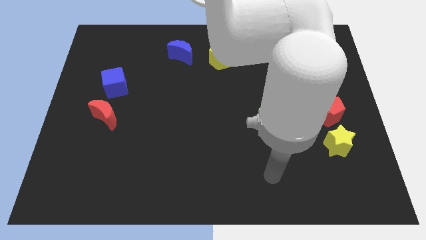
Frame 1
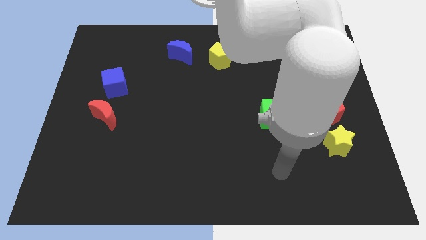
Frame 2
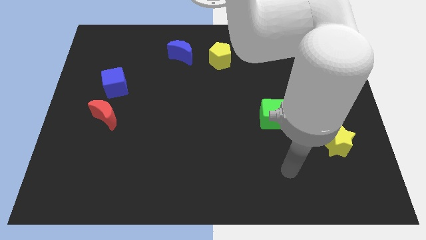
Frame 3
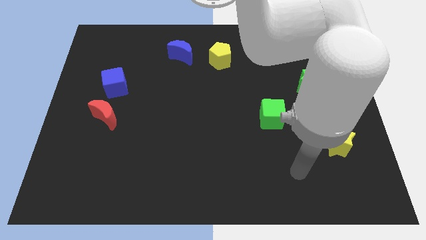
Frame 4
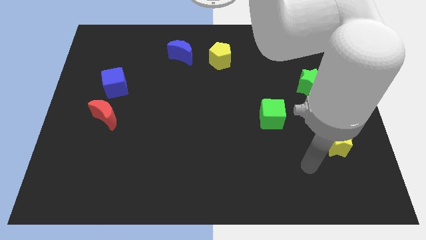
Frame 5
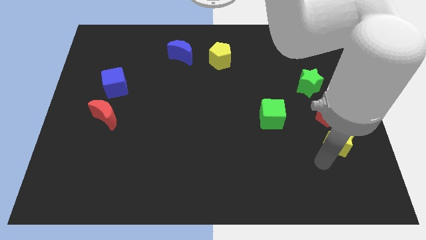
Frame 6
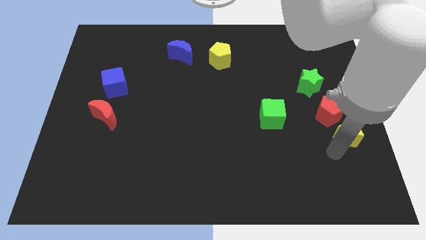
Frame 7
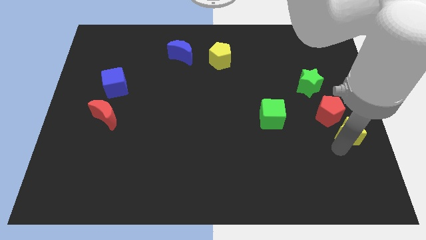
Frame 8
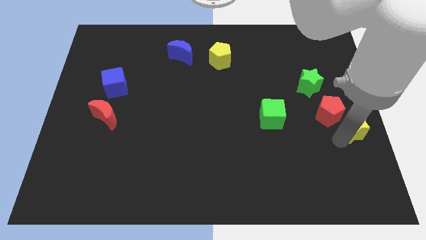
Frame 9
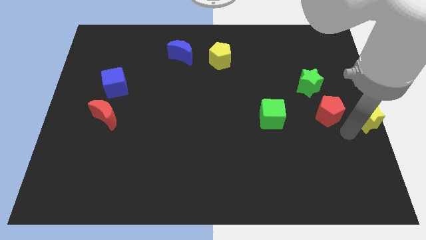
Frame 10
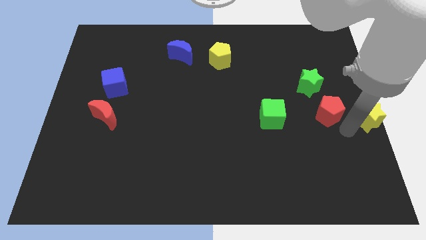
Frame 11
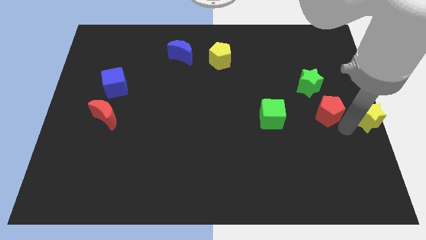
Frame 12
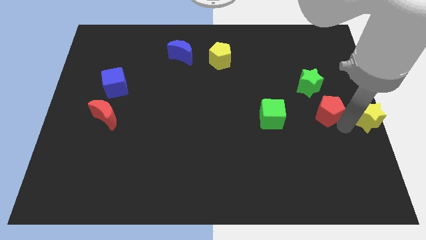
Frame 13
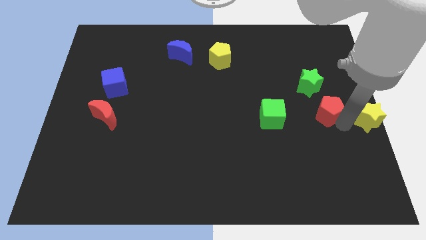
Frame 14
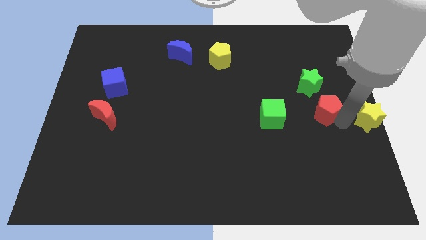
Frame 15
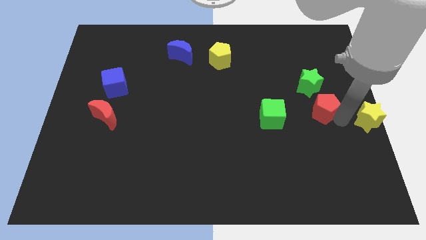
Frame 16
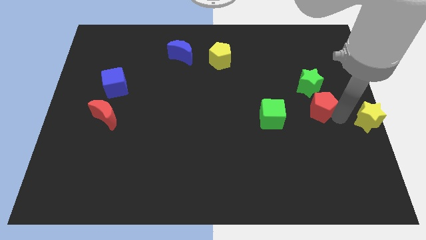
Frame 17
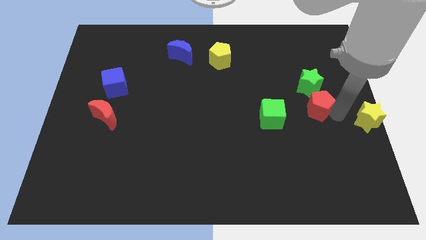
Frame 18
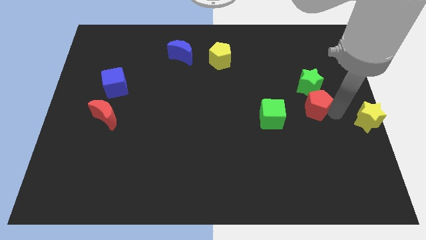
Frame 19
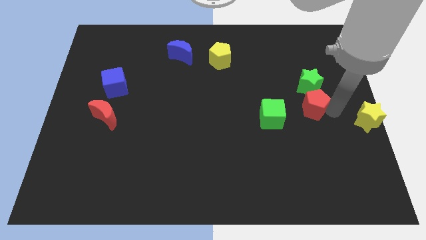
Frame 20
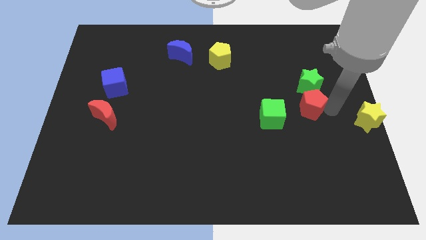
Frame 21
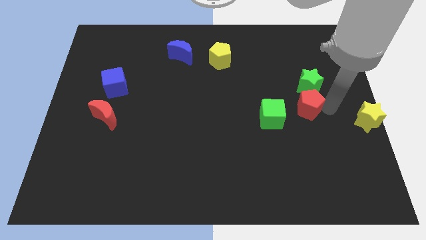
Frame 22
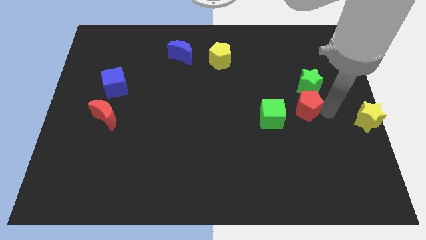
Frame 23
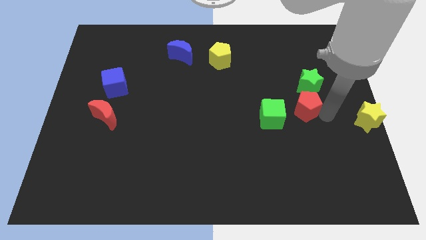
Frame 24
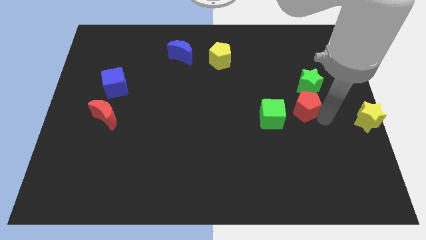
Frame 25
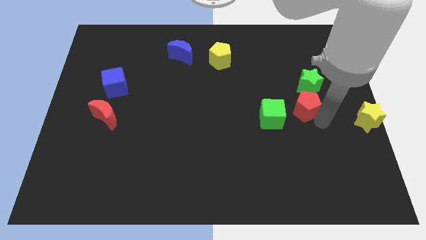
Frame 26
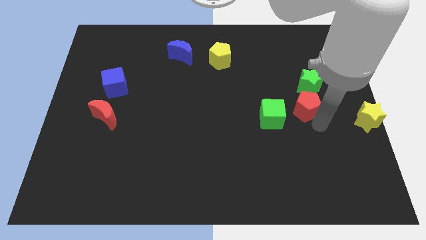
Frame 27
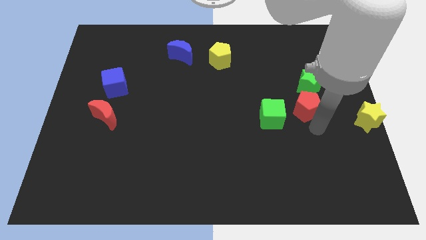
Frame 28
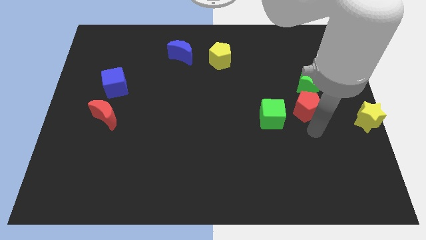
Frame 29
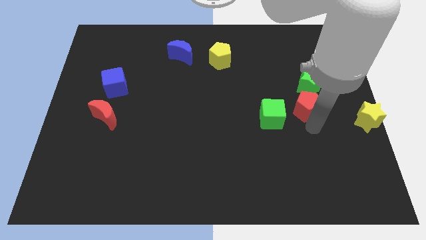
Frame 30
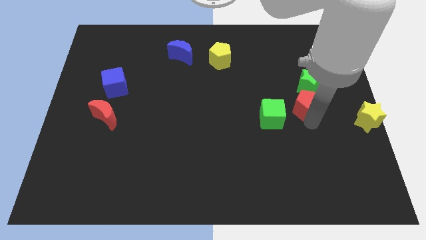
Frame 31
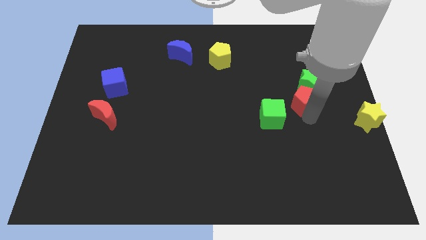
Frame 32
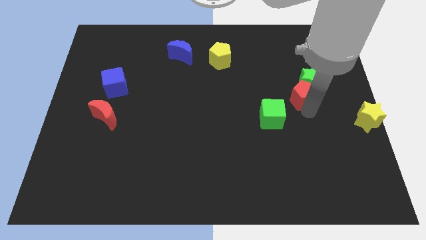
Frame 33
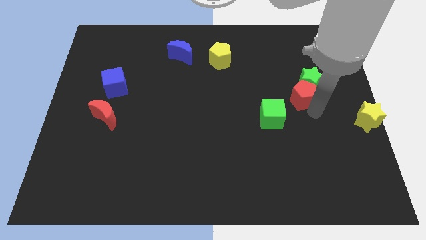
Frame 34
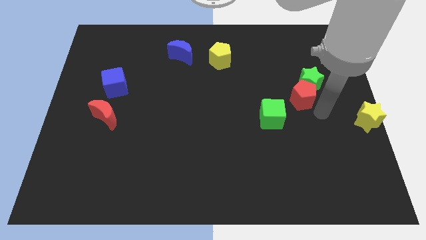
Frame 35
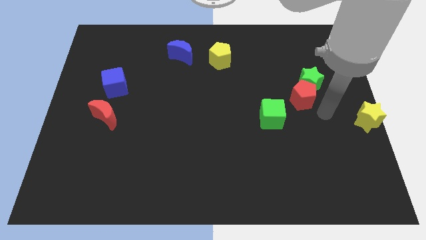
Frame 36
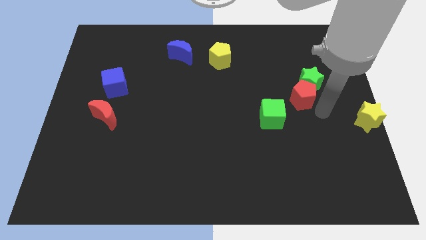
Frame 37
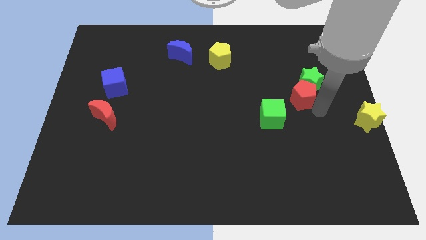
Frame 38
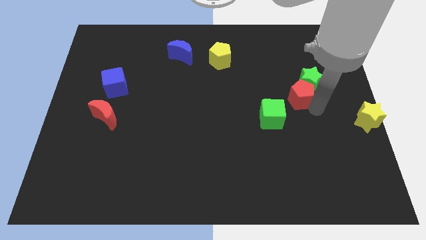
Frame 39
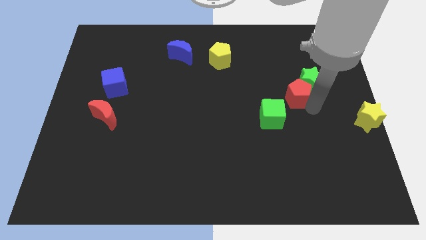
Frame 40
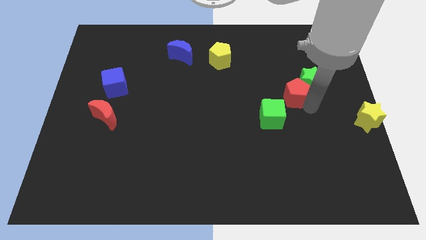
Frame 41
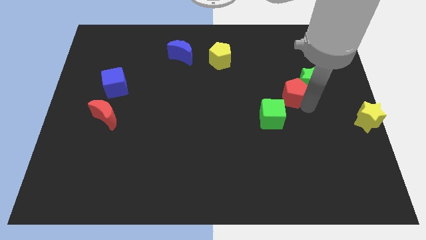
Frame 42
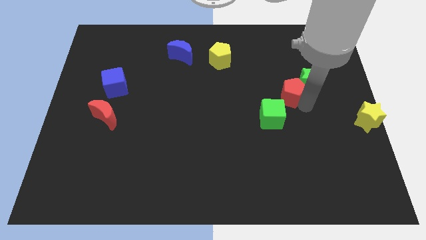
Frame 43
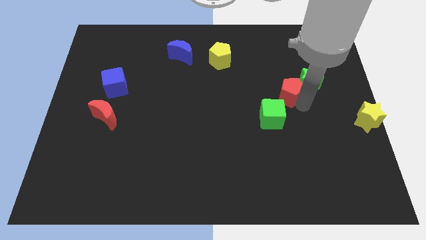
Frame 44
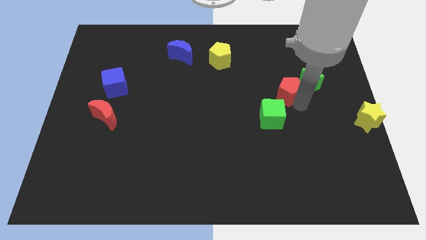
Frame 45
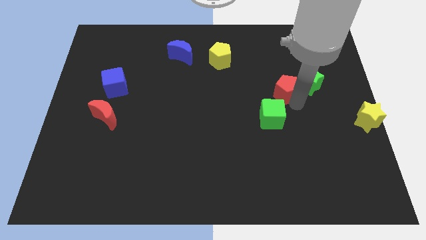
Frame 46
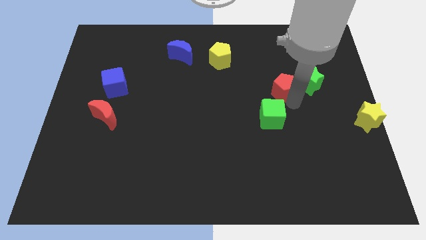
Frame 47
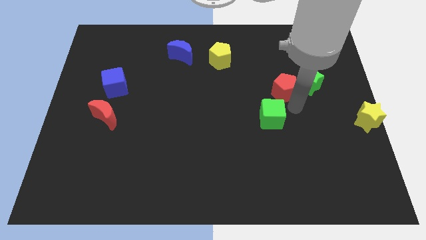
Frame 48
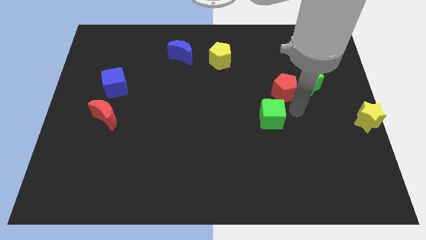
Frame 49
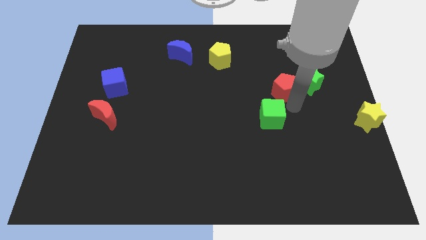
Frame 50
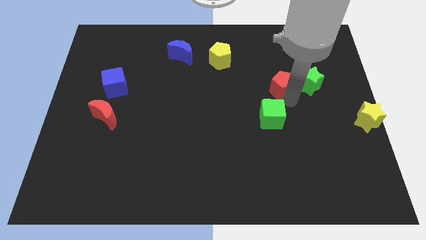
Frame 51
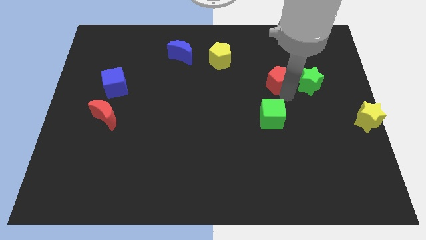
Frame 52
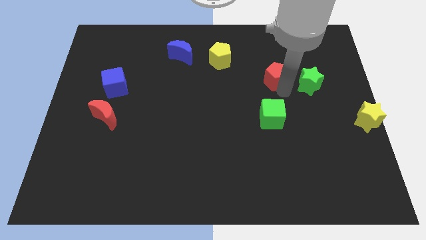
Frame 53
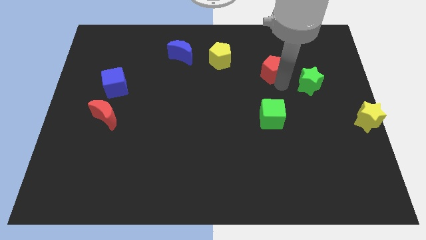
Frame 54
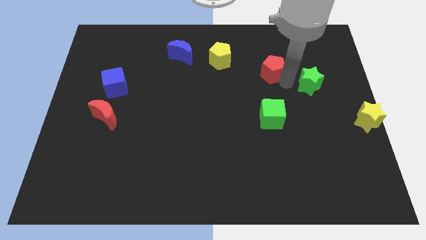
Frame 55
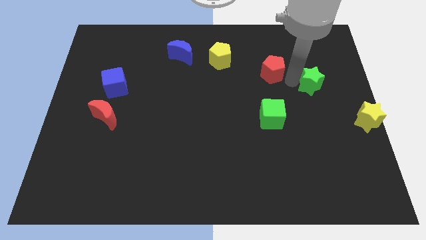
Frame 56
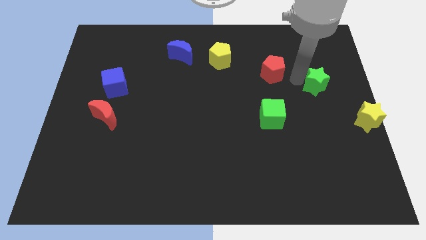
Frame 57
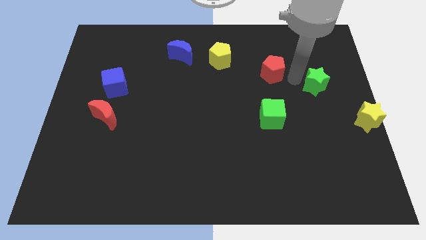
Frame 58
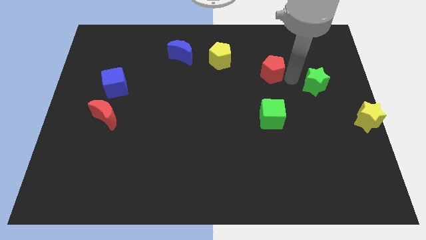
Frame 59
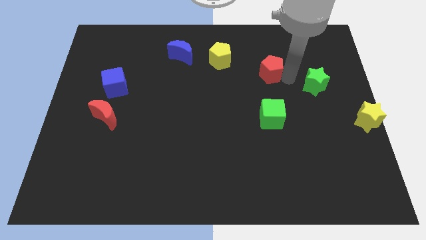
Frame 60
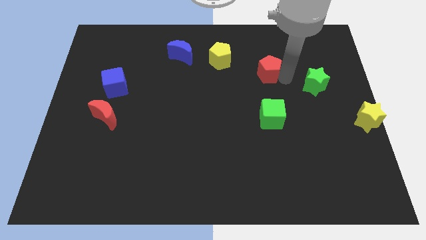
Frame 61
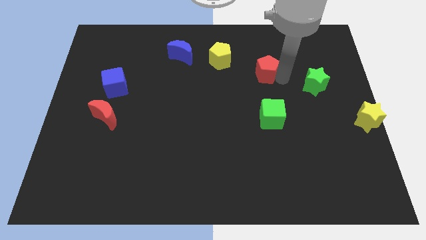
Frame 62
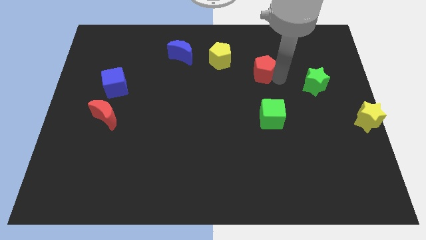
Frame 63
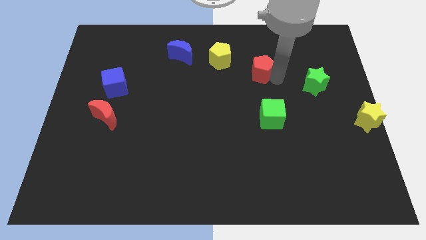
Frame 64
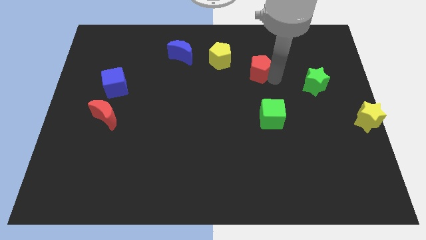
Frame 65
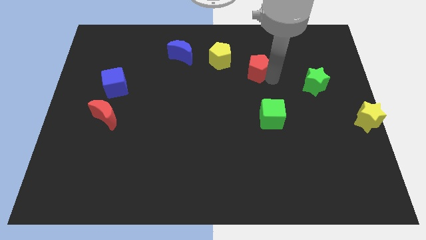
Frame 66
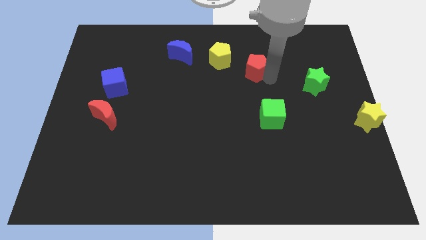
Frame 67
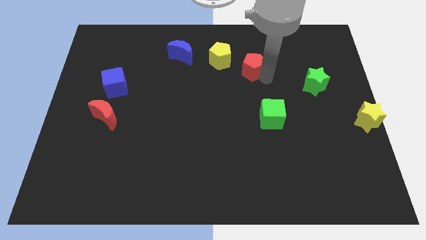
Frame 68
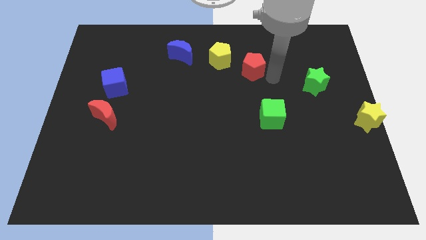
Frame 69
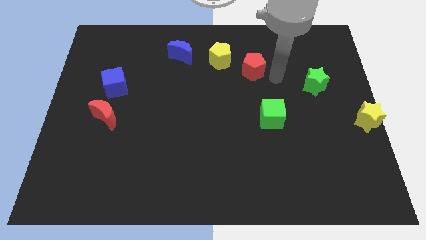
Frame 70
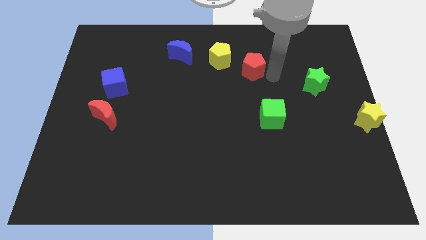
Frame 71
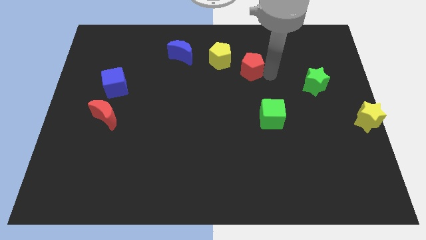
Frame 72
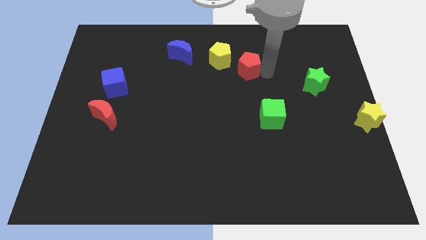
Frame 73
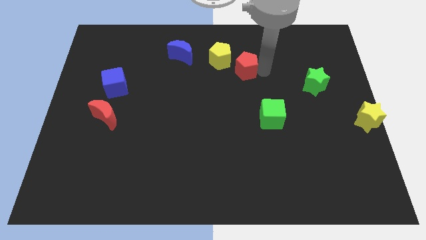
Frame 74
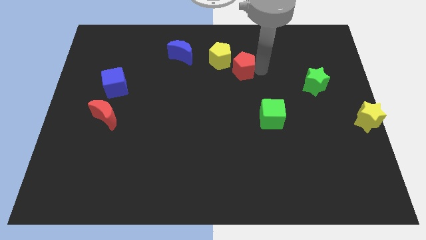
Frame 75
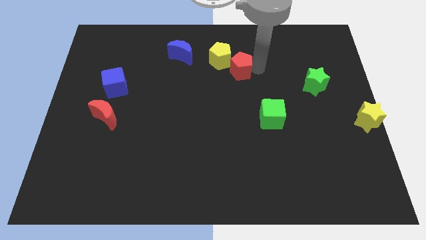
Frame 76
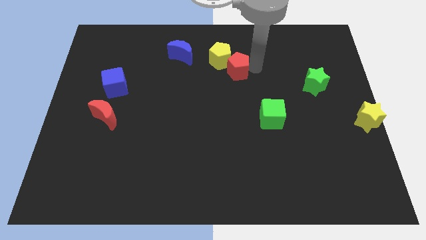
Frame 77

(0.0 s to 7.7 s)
push the red pentagon towards the yellow pentagon
